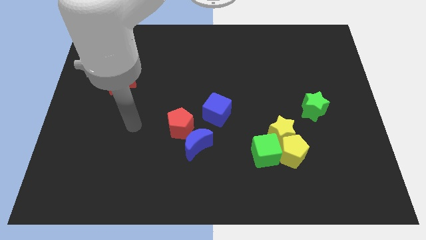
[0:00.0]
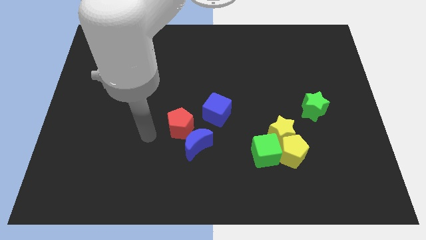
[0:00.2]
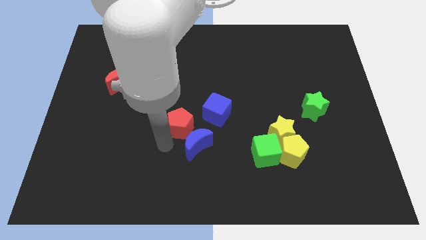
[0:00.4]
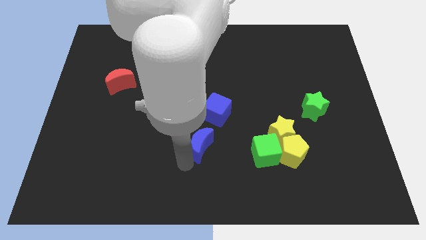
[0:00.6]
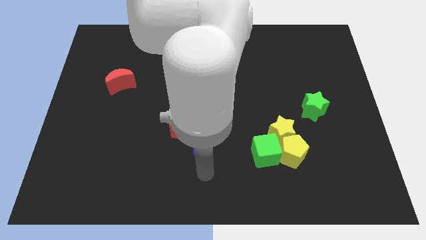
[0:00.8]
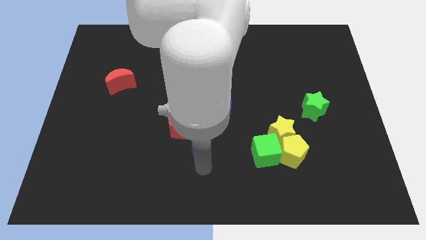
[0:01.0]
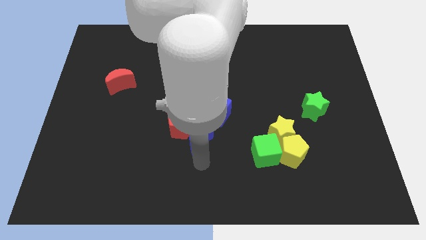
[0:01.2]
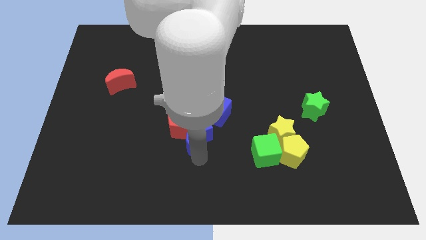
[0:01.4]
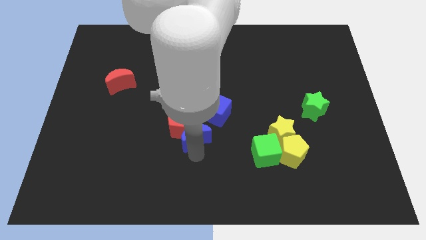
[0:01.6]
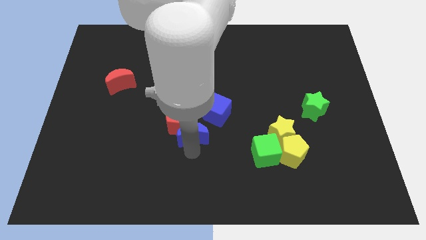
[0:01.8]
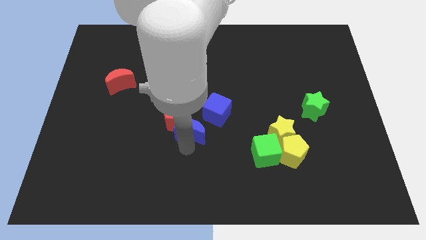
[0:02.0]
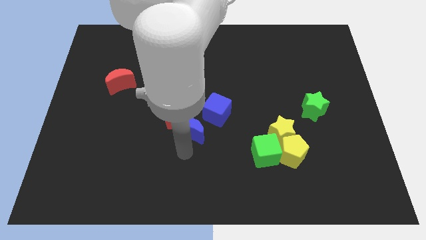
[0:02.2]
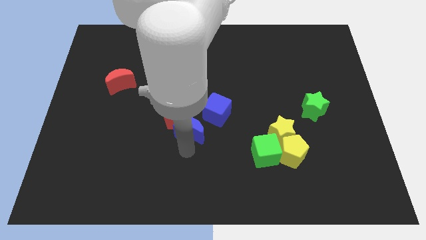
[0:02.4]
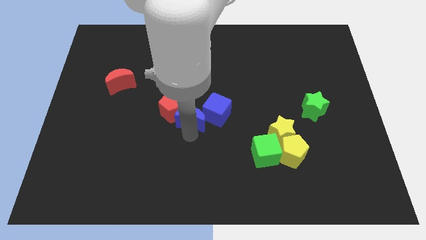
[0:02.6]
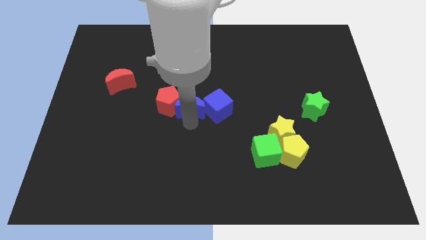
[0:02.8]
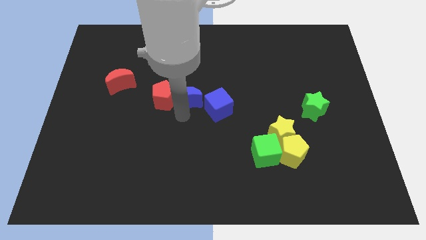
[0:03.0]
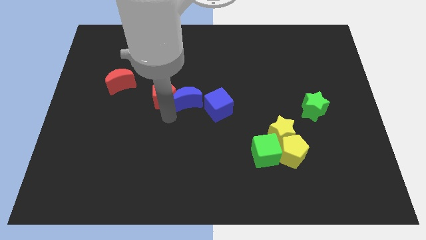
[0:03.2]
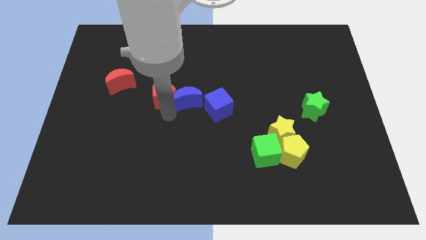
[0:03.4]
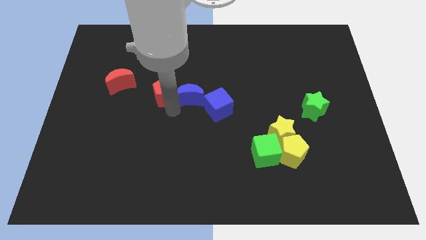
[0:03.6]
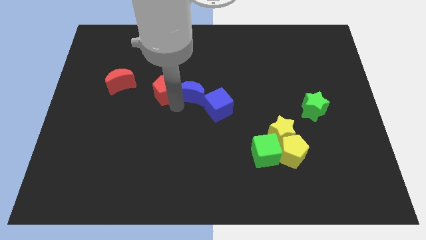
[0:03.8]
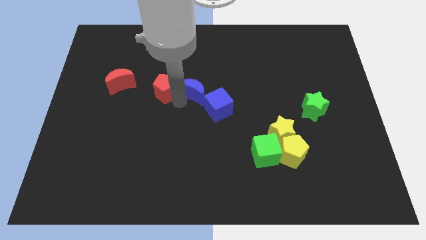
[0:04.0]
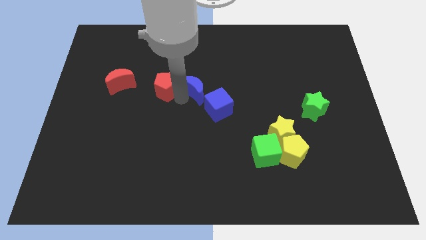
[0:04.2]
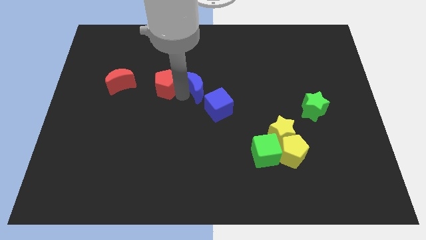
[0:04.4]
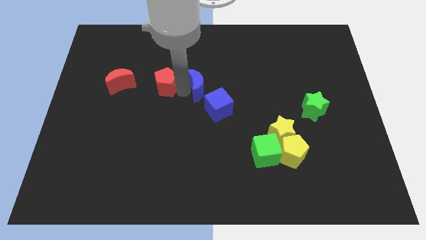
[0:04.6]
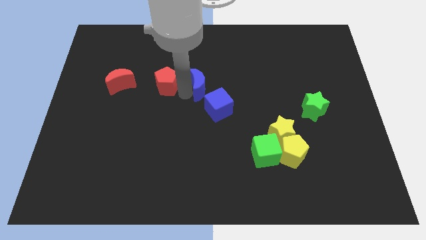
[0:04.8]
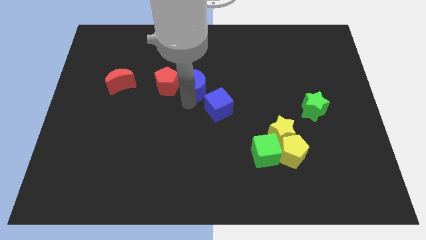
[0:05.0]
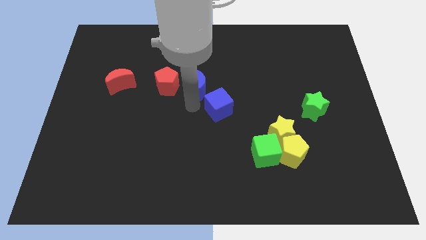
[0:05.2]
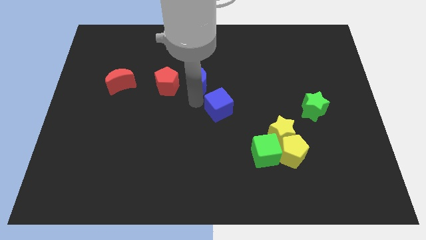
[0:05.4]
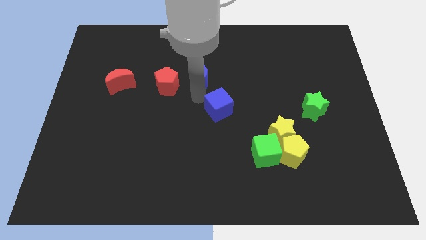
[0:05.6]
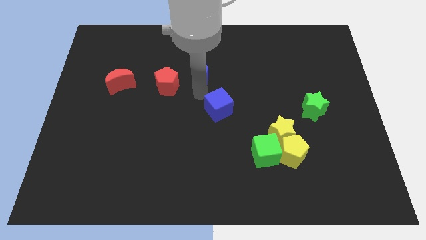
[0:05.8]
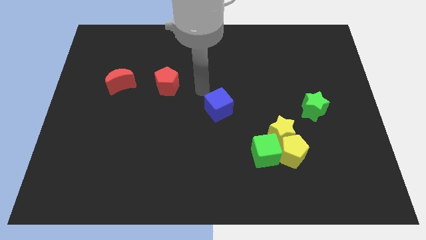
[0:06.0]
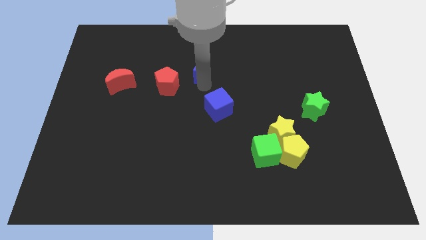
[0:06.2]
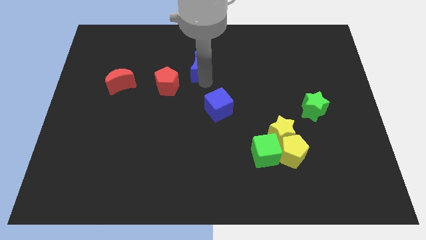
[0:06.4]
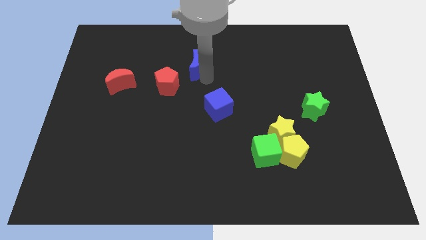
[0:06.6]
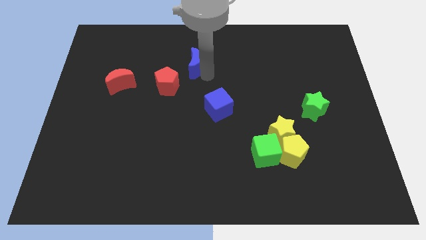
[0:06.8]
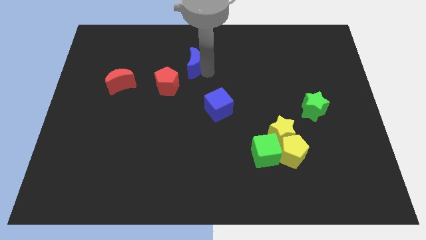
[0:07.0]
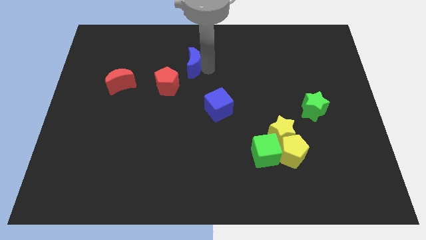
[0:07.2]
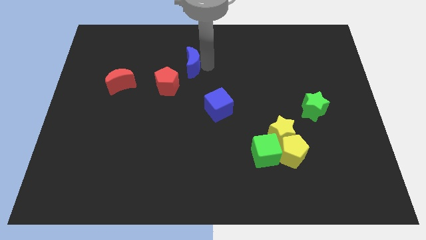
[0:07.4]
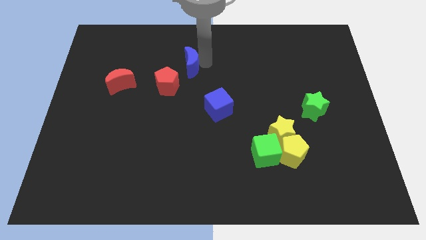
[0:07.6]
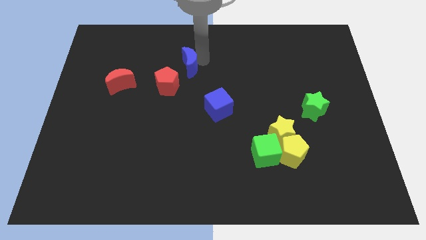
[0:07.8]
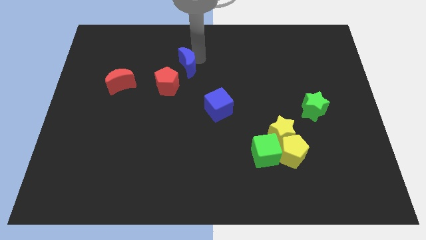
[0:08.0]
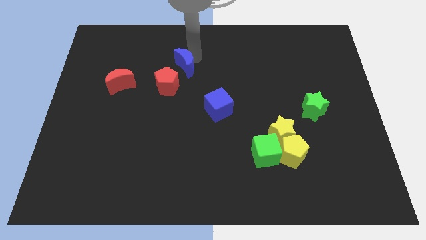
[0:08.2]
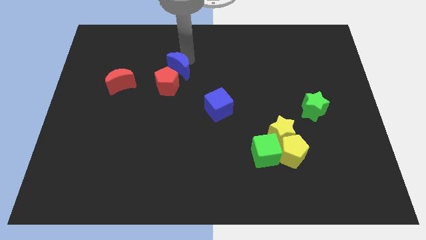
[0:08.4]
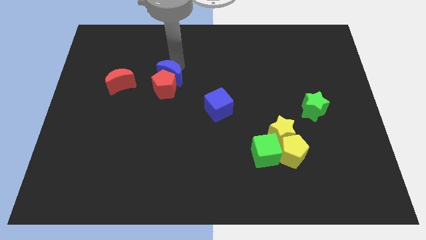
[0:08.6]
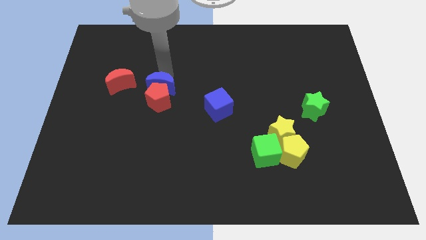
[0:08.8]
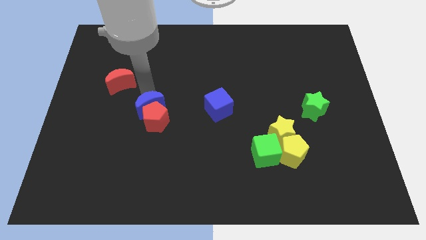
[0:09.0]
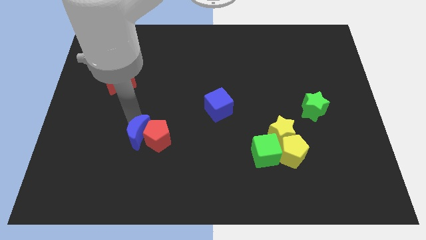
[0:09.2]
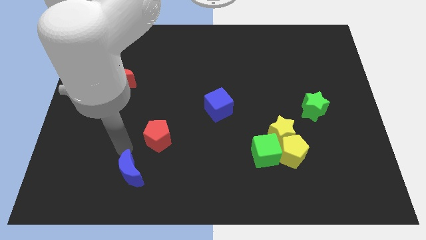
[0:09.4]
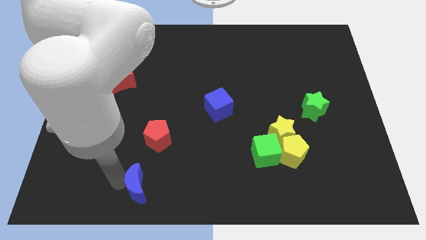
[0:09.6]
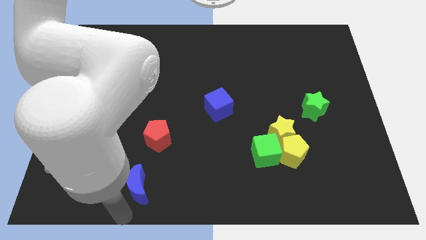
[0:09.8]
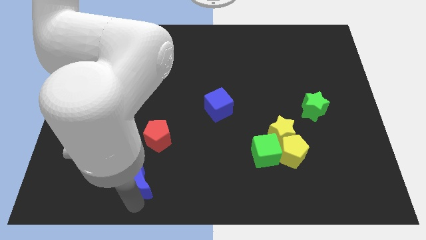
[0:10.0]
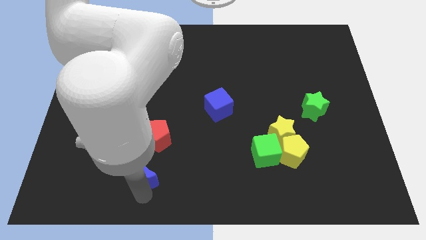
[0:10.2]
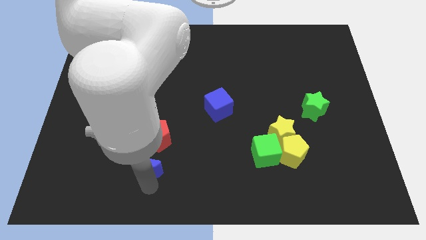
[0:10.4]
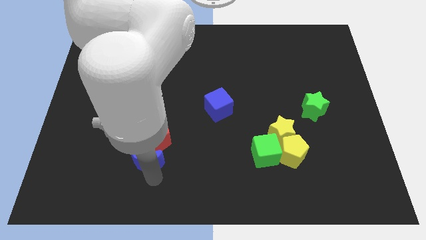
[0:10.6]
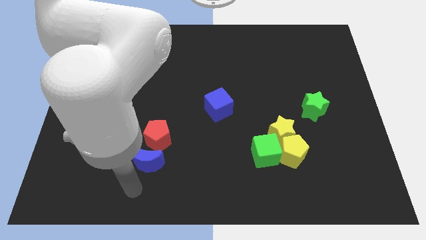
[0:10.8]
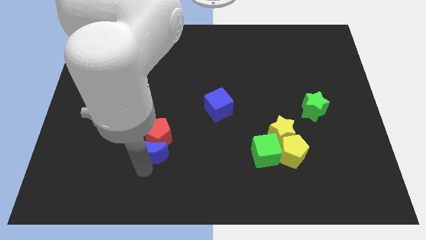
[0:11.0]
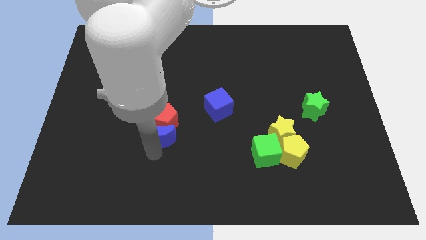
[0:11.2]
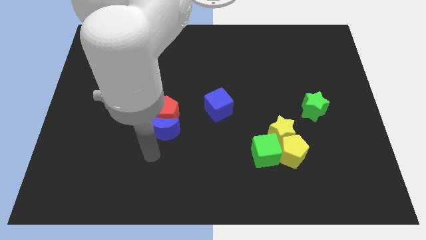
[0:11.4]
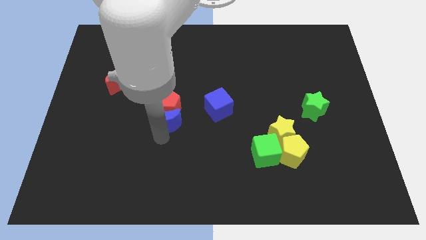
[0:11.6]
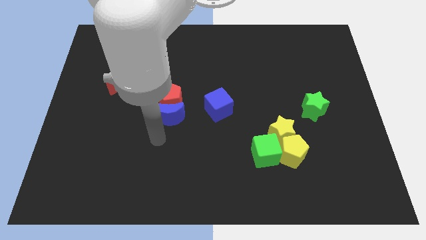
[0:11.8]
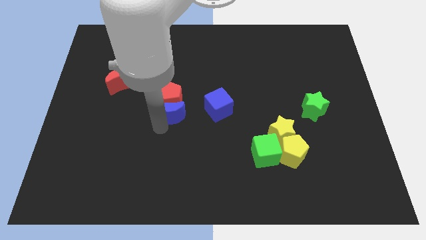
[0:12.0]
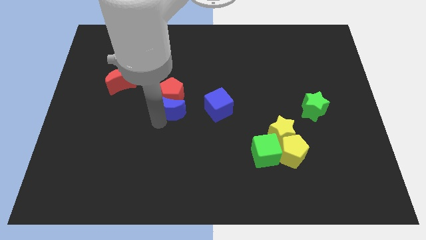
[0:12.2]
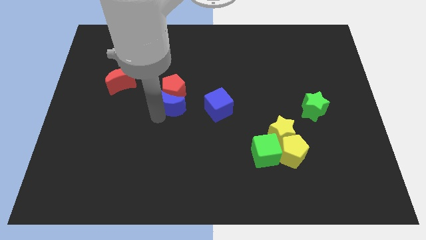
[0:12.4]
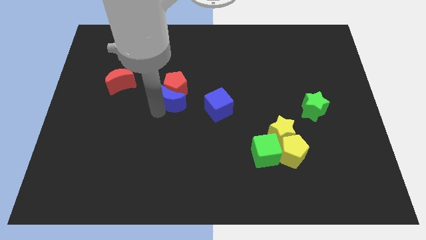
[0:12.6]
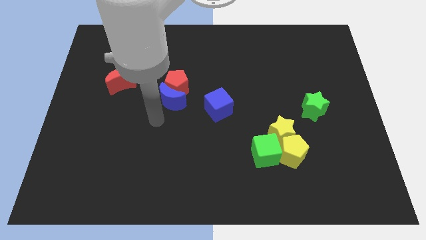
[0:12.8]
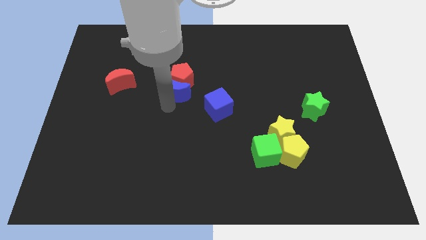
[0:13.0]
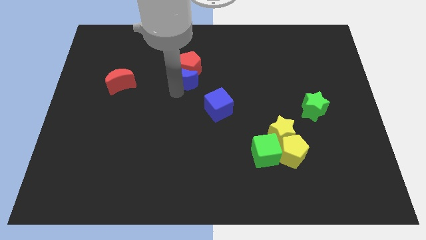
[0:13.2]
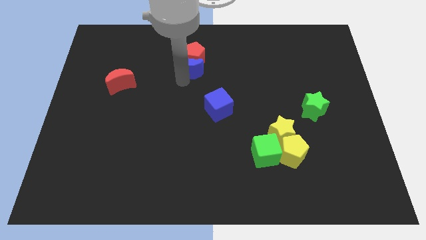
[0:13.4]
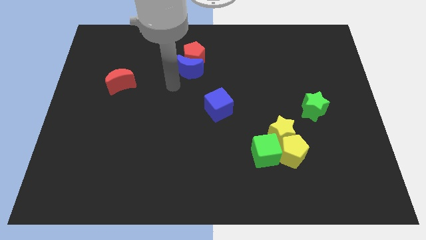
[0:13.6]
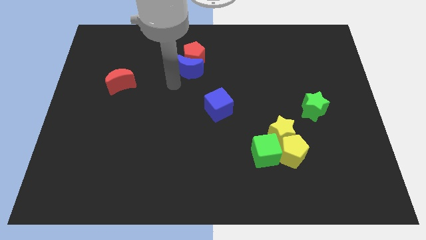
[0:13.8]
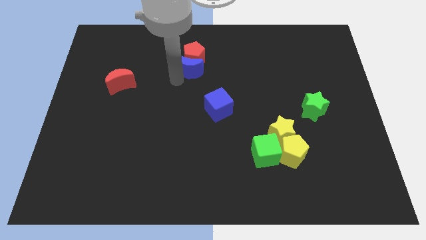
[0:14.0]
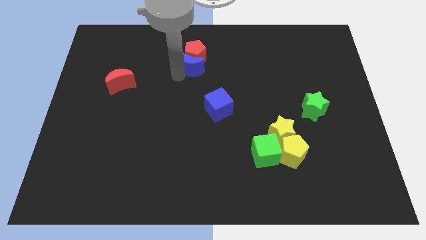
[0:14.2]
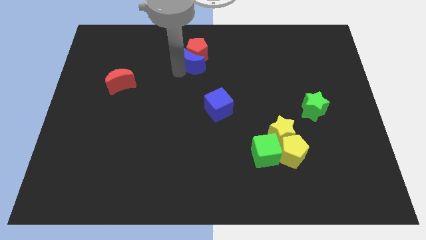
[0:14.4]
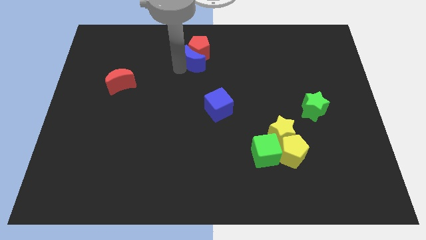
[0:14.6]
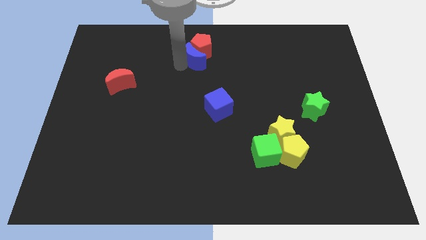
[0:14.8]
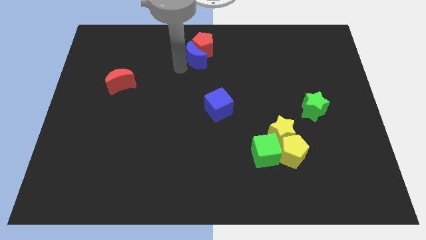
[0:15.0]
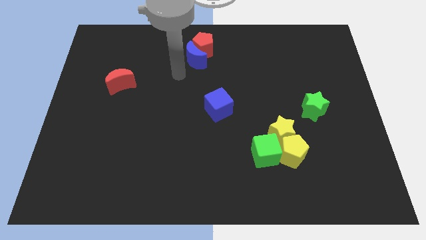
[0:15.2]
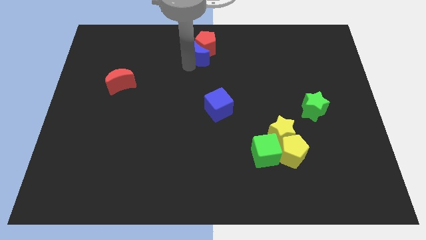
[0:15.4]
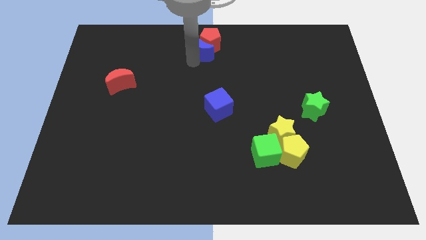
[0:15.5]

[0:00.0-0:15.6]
put the blue moon to the top side
